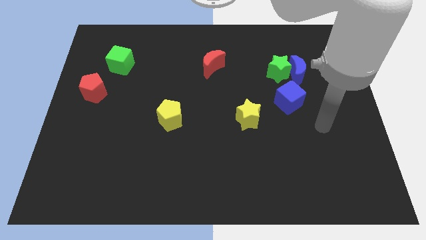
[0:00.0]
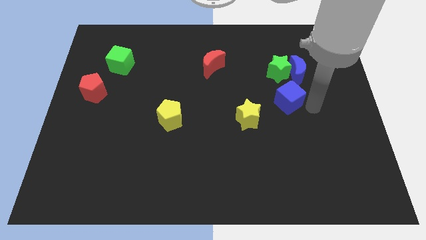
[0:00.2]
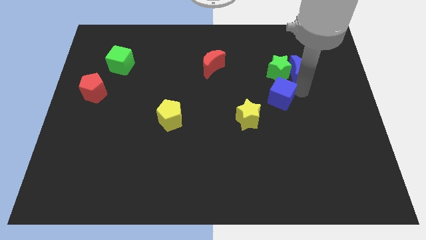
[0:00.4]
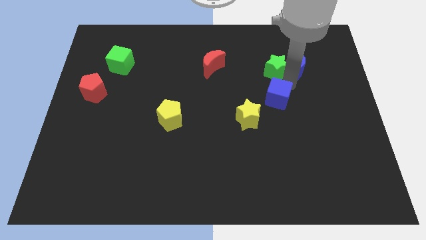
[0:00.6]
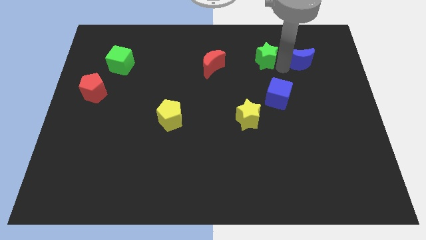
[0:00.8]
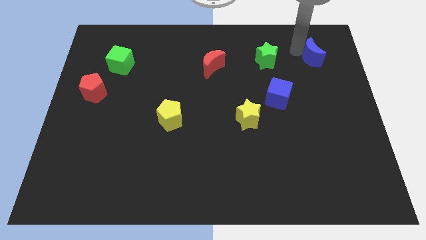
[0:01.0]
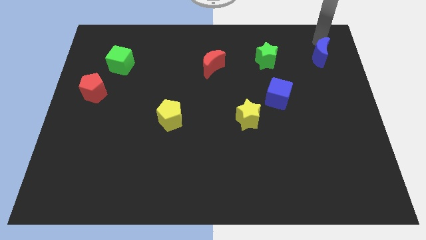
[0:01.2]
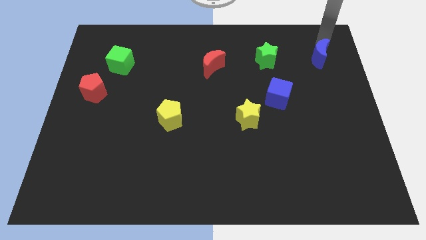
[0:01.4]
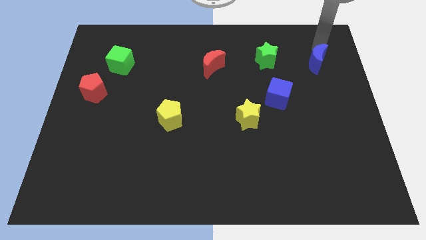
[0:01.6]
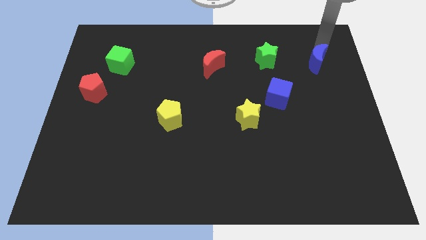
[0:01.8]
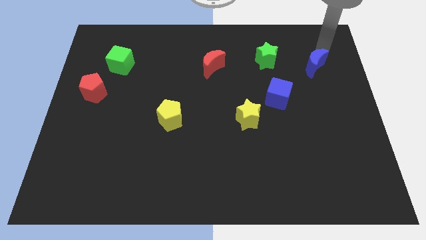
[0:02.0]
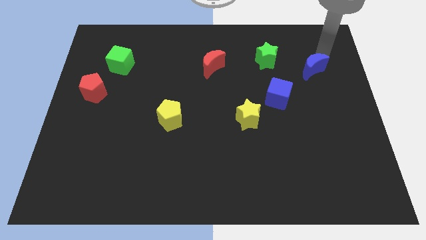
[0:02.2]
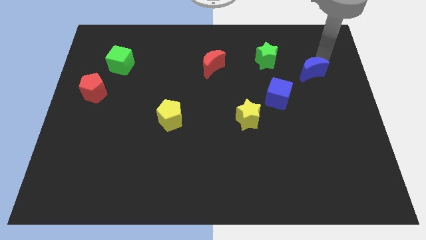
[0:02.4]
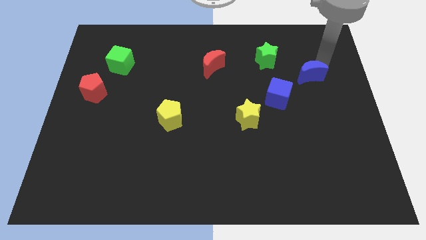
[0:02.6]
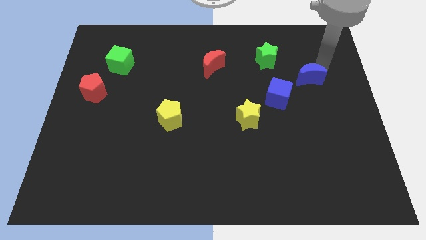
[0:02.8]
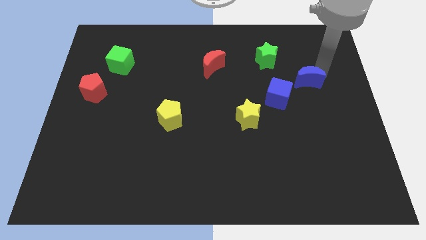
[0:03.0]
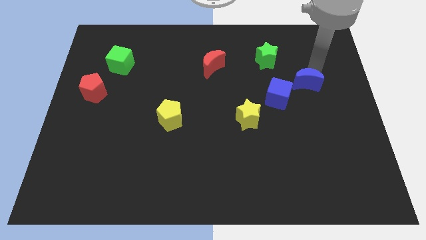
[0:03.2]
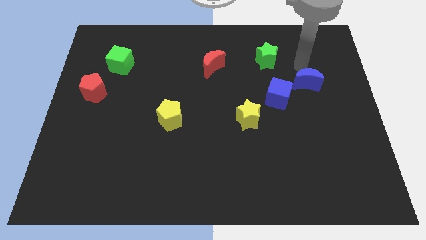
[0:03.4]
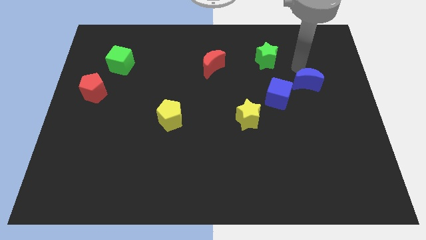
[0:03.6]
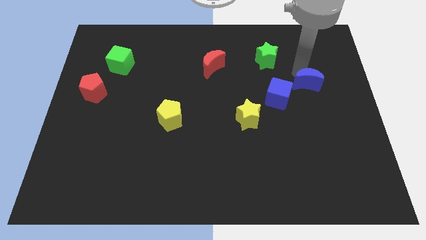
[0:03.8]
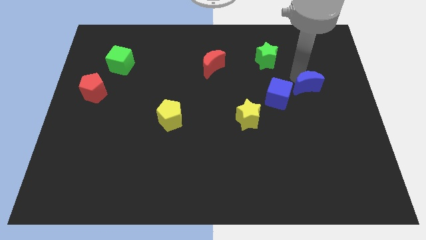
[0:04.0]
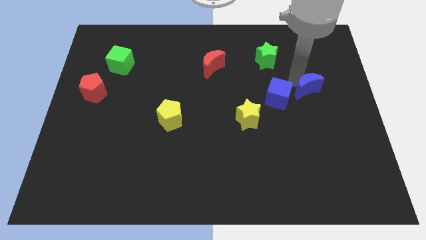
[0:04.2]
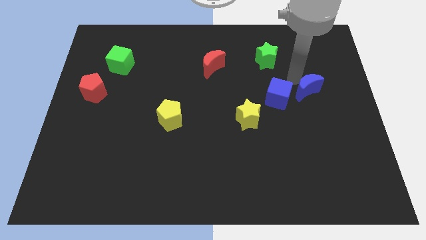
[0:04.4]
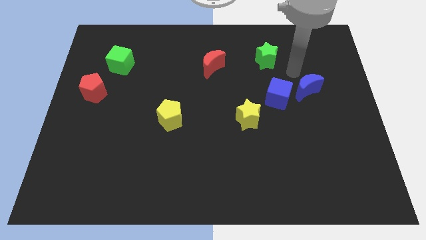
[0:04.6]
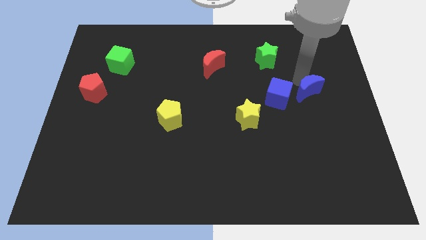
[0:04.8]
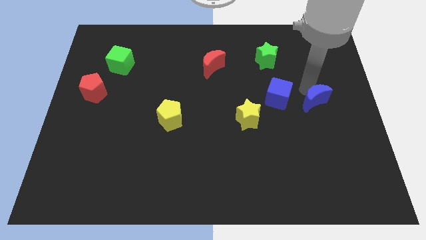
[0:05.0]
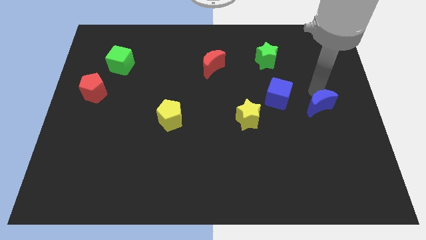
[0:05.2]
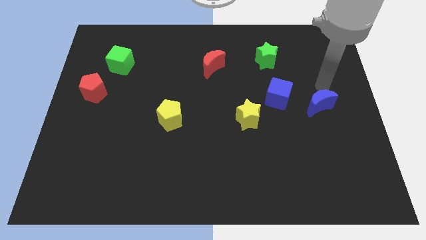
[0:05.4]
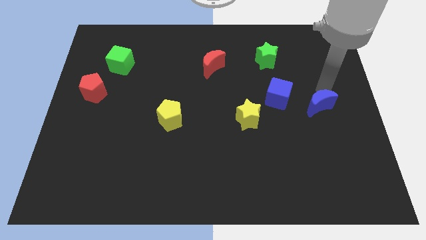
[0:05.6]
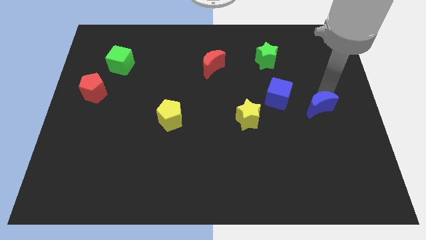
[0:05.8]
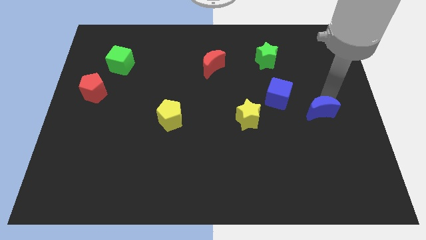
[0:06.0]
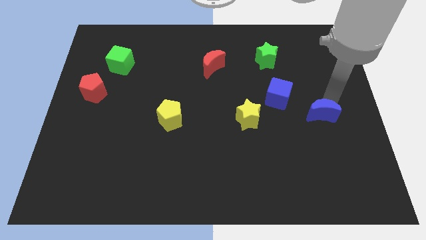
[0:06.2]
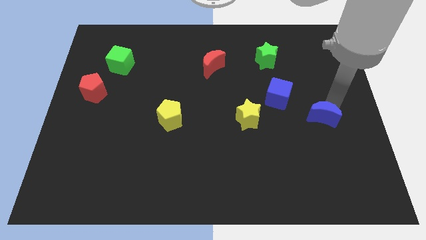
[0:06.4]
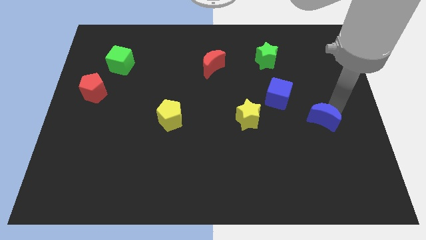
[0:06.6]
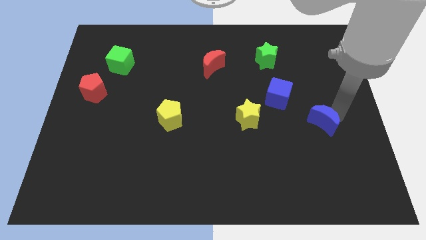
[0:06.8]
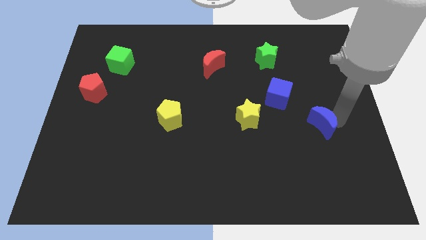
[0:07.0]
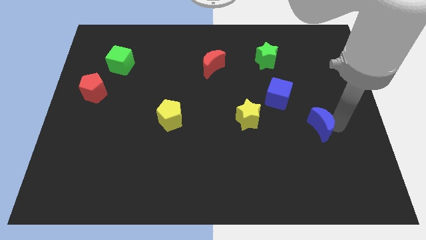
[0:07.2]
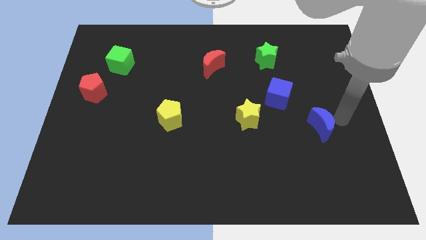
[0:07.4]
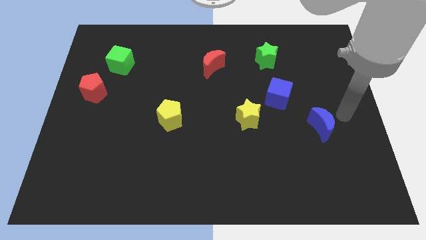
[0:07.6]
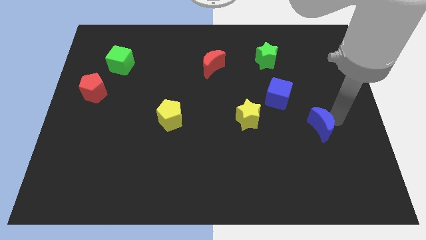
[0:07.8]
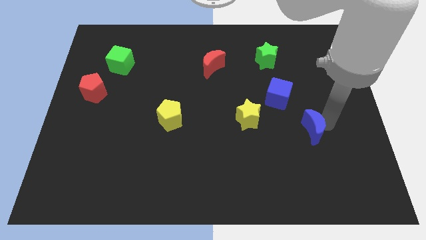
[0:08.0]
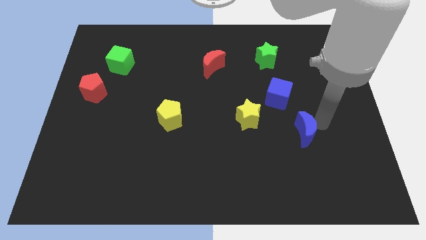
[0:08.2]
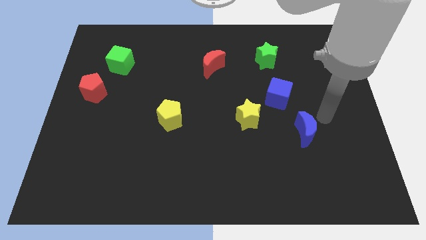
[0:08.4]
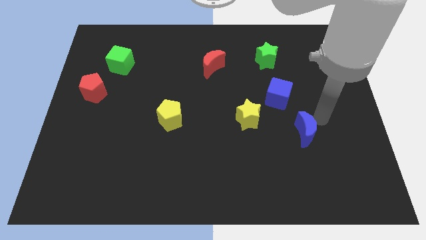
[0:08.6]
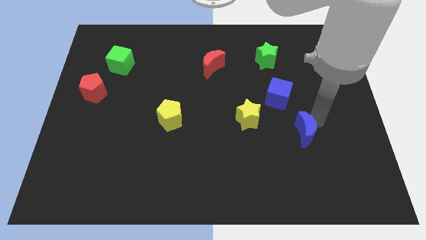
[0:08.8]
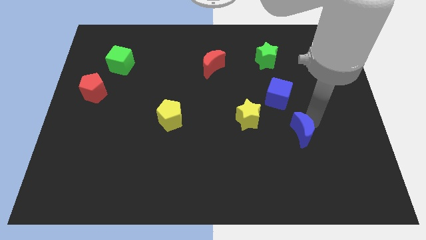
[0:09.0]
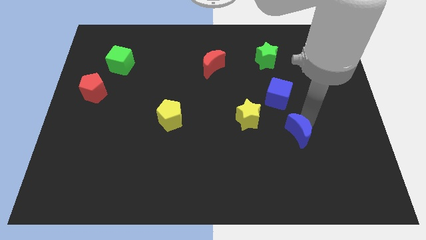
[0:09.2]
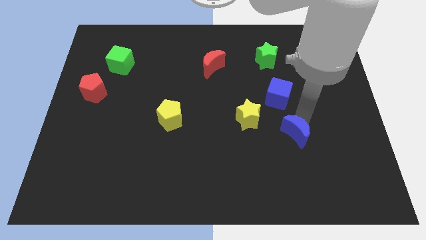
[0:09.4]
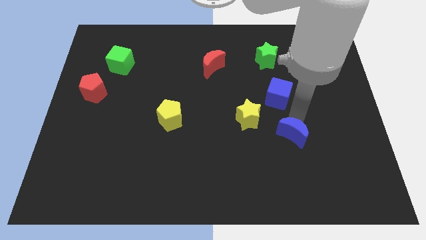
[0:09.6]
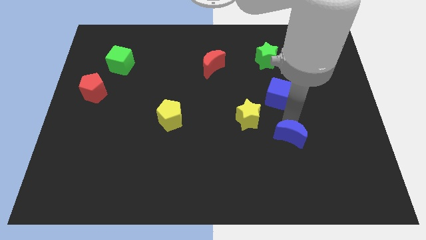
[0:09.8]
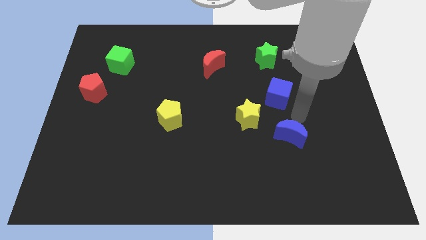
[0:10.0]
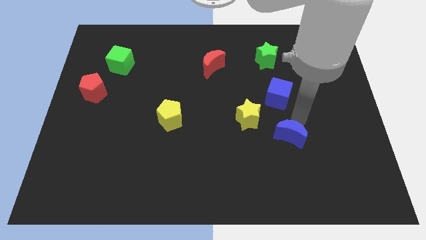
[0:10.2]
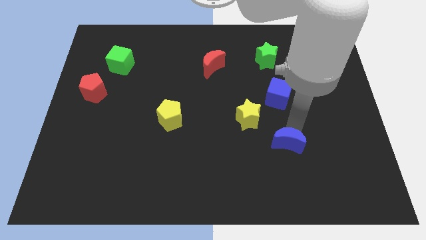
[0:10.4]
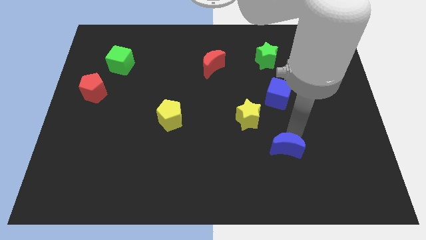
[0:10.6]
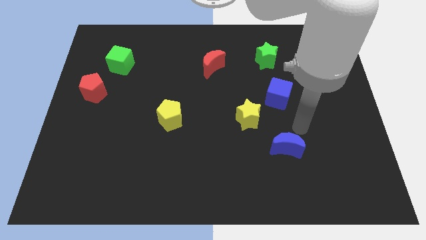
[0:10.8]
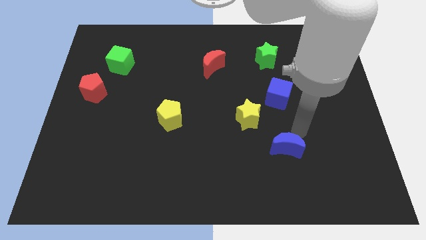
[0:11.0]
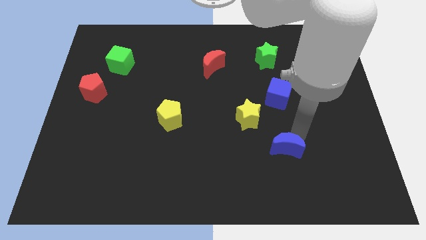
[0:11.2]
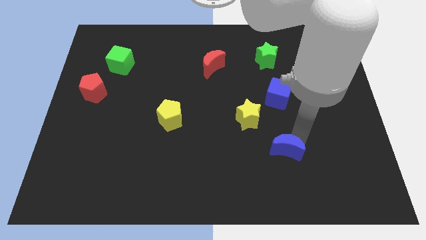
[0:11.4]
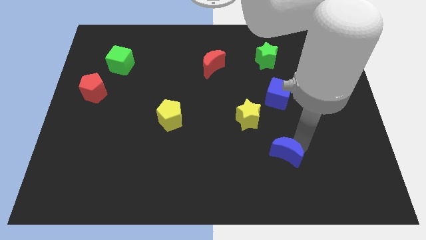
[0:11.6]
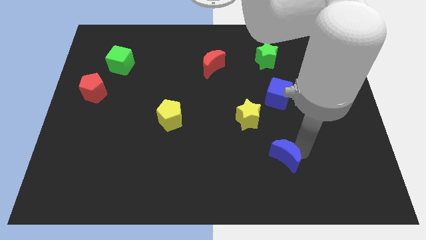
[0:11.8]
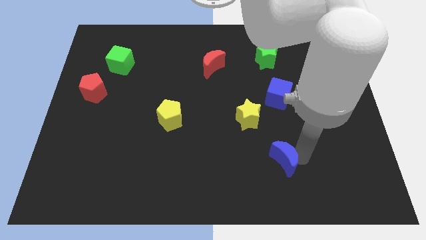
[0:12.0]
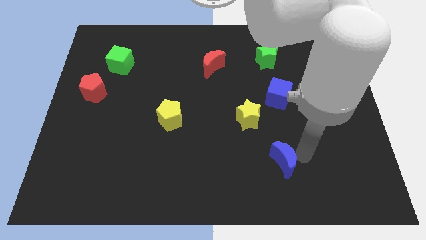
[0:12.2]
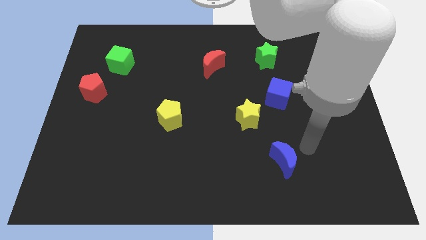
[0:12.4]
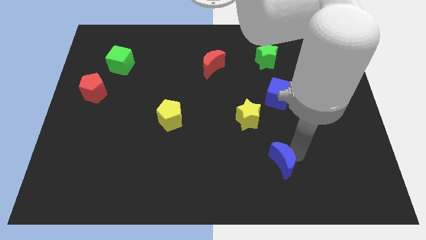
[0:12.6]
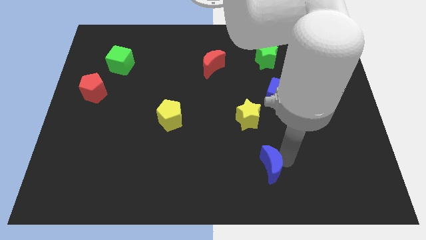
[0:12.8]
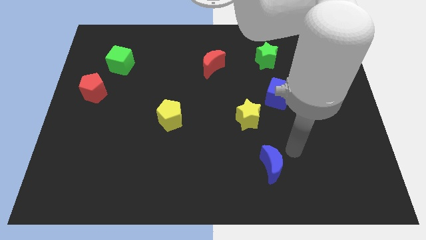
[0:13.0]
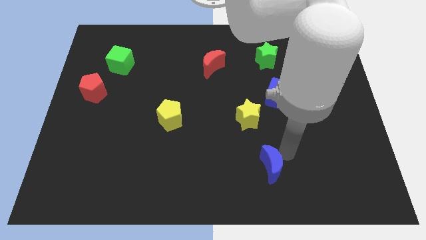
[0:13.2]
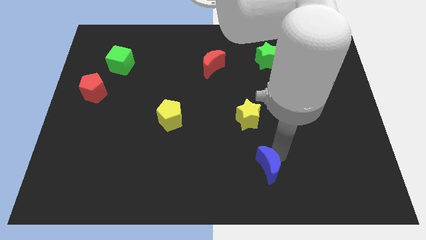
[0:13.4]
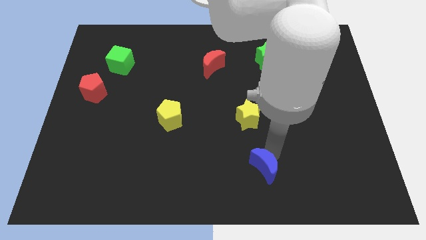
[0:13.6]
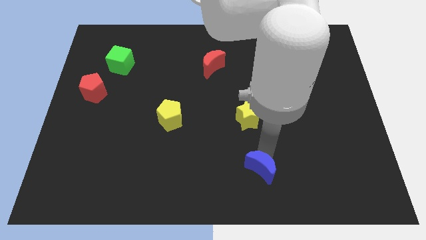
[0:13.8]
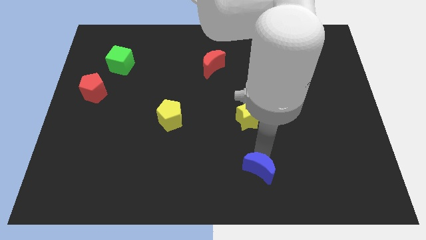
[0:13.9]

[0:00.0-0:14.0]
put the blue moon to the bottom
